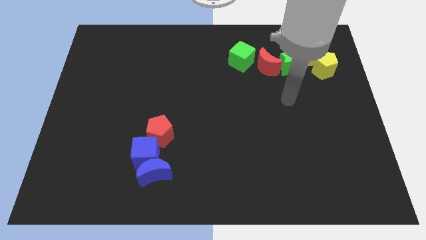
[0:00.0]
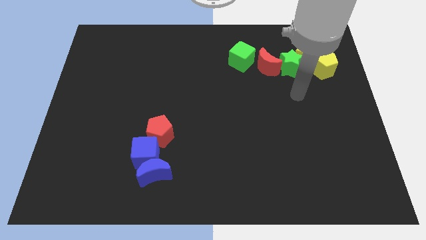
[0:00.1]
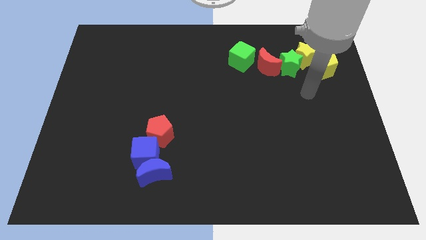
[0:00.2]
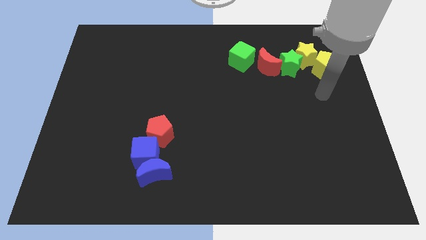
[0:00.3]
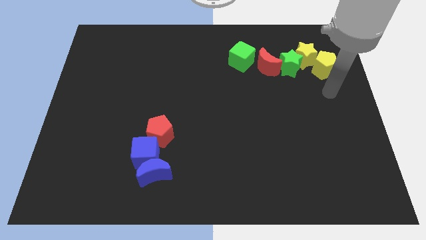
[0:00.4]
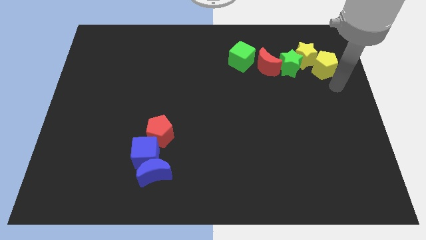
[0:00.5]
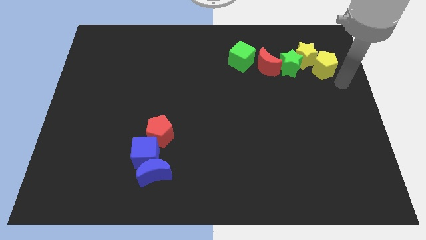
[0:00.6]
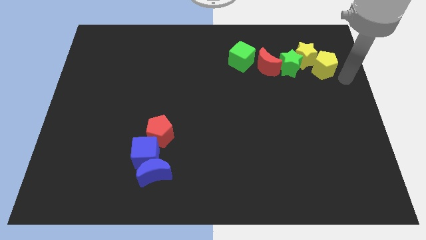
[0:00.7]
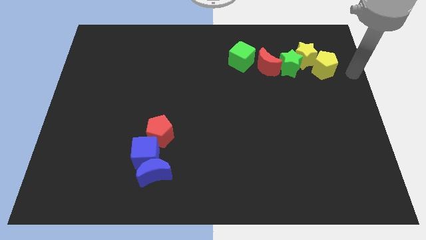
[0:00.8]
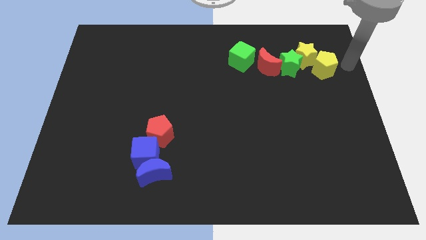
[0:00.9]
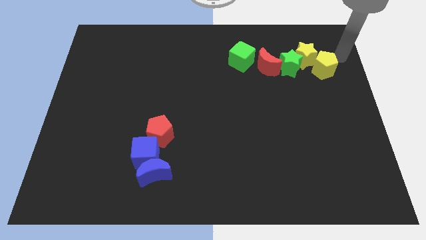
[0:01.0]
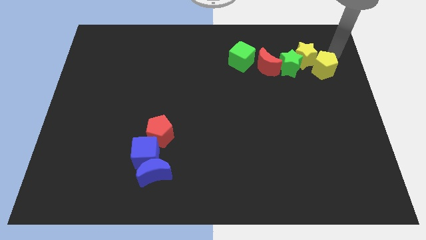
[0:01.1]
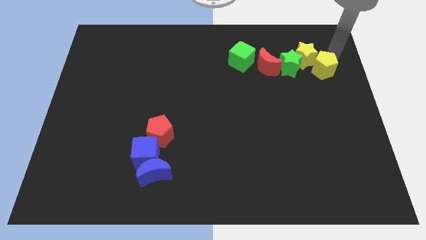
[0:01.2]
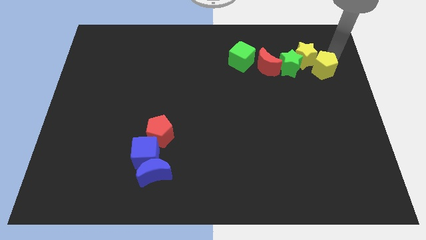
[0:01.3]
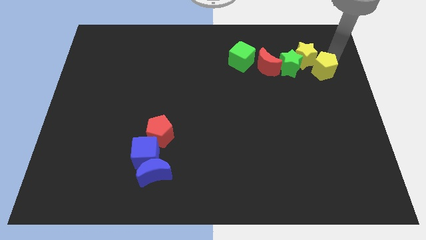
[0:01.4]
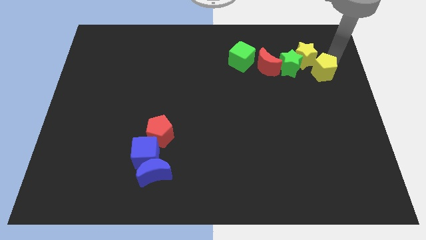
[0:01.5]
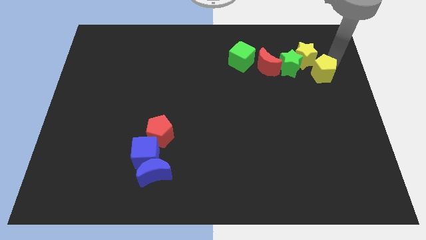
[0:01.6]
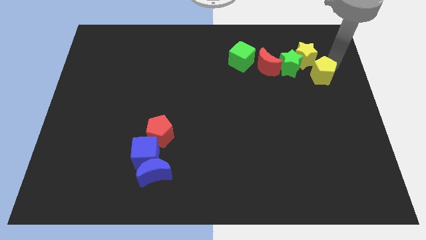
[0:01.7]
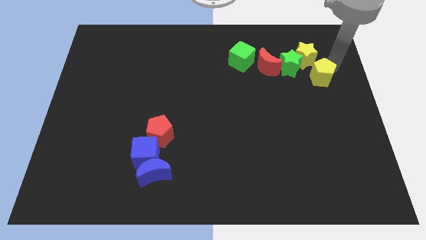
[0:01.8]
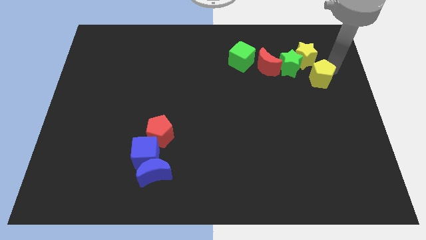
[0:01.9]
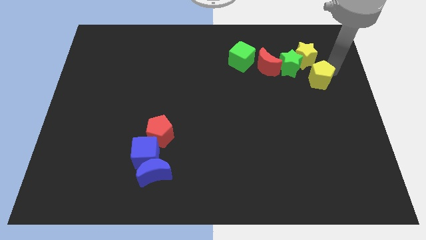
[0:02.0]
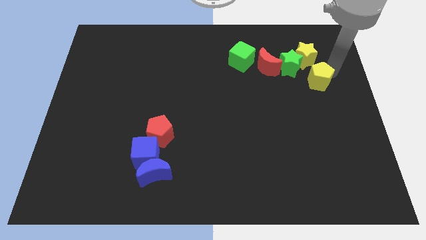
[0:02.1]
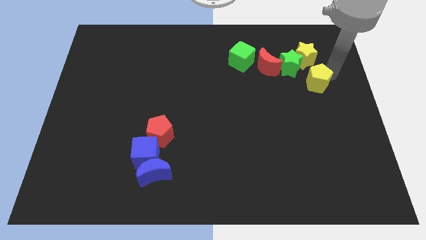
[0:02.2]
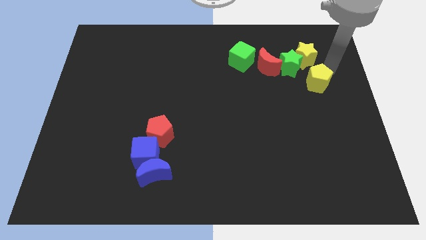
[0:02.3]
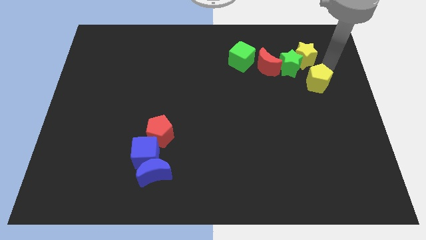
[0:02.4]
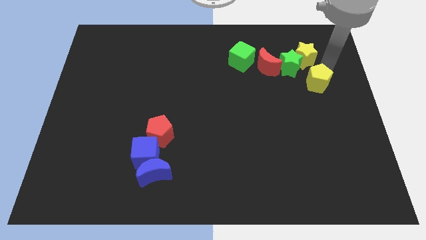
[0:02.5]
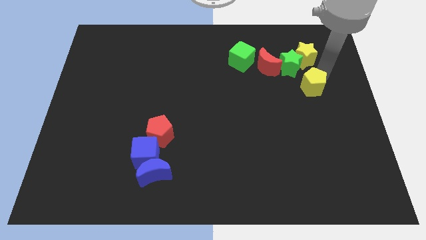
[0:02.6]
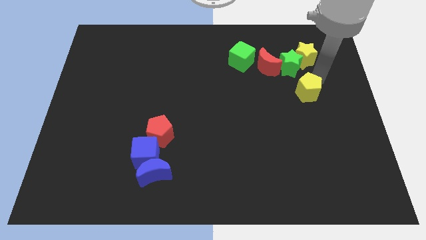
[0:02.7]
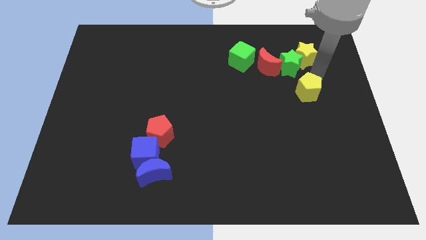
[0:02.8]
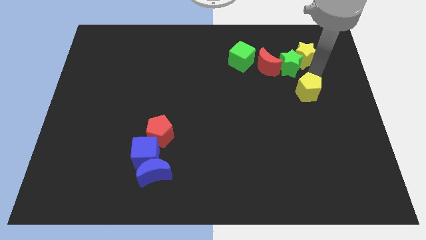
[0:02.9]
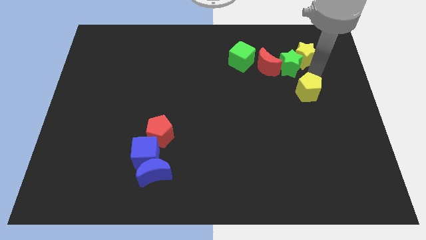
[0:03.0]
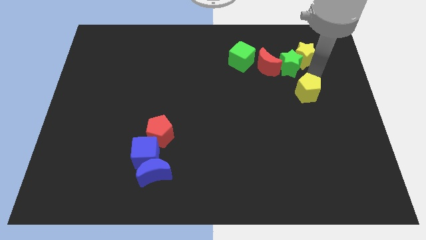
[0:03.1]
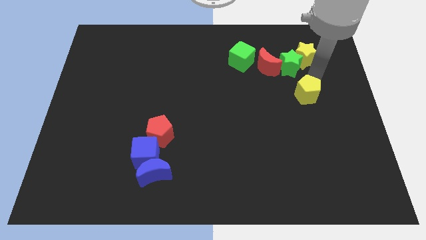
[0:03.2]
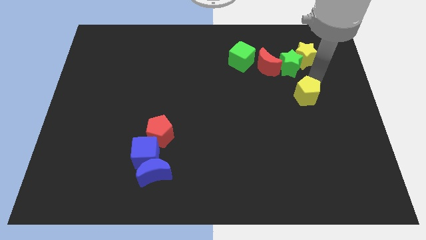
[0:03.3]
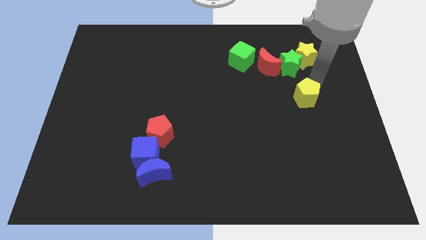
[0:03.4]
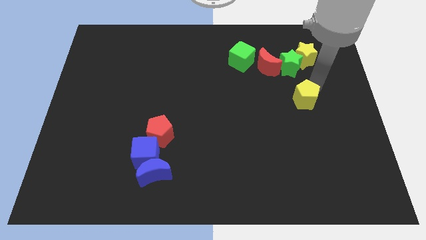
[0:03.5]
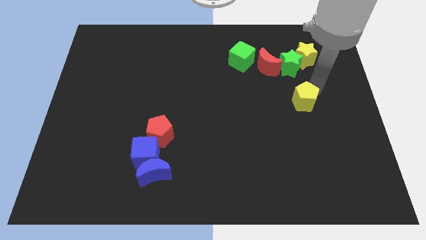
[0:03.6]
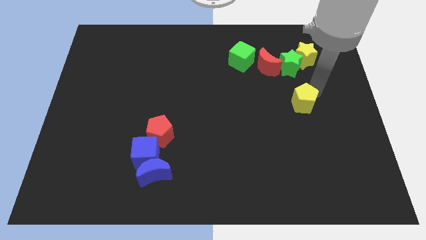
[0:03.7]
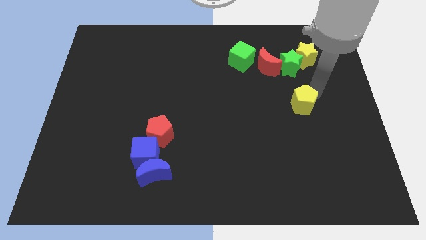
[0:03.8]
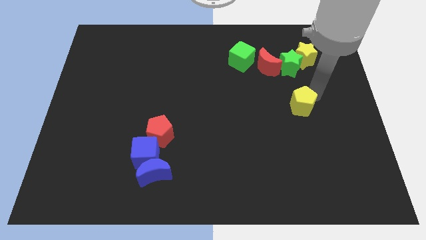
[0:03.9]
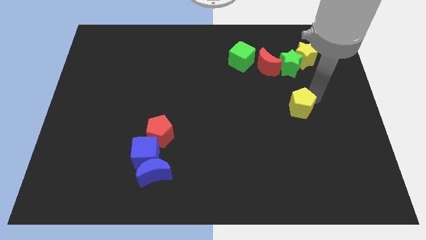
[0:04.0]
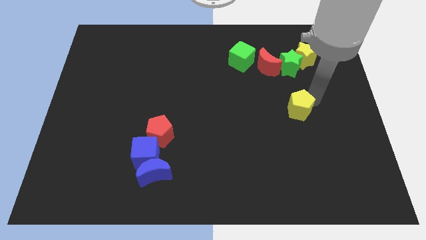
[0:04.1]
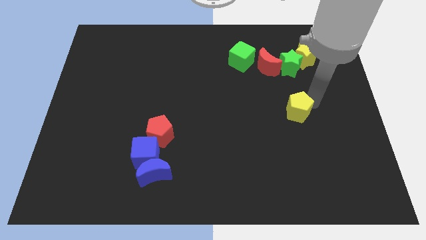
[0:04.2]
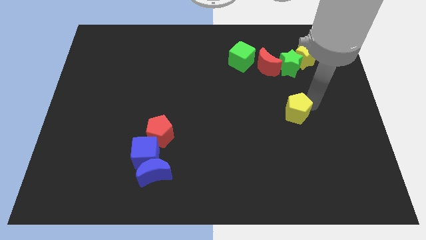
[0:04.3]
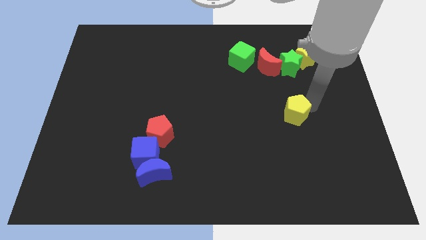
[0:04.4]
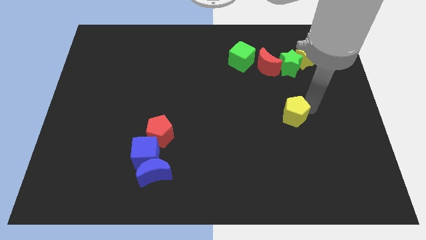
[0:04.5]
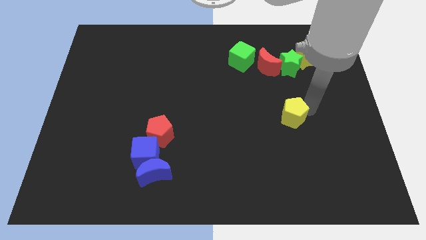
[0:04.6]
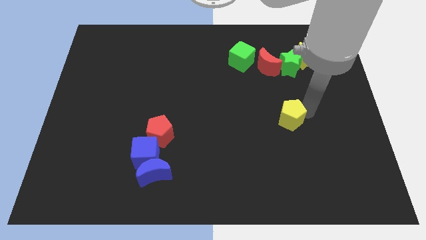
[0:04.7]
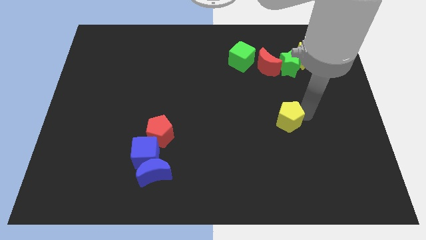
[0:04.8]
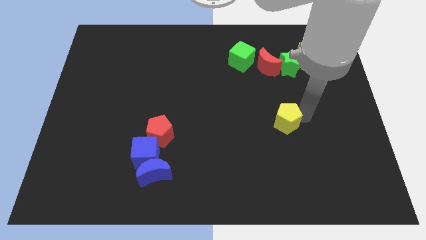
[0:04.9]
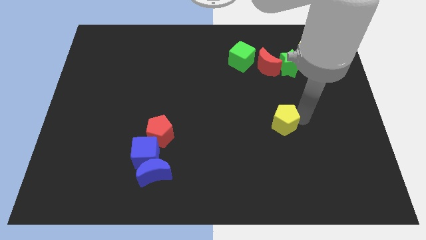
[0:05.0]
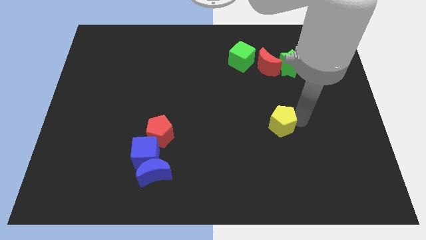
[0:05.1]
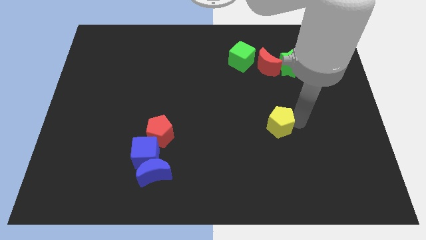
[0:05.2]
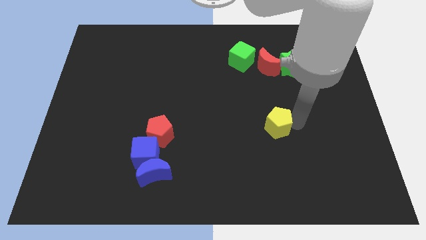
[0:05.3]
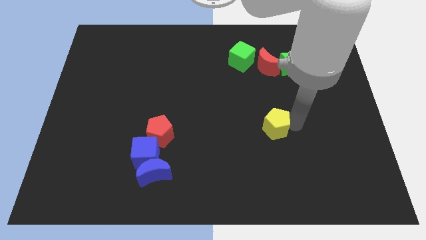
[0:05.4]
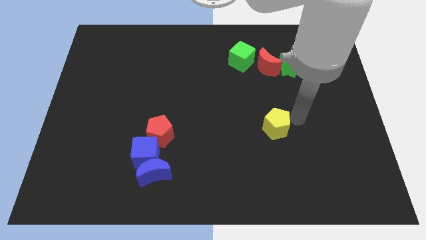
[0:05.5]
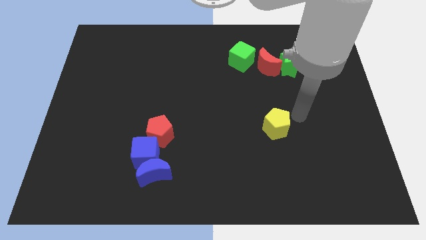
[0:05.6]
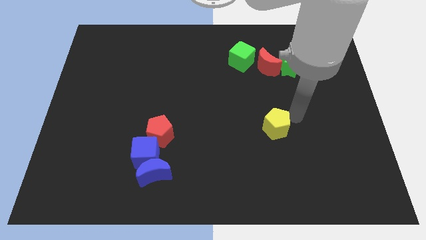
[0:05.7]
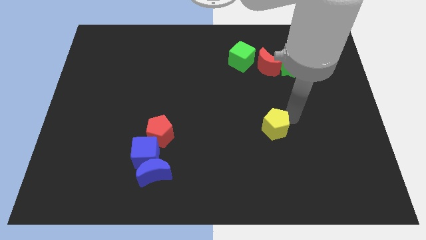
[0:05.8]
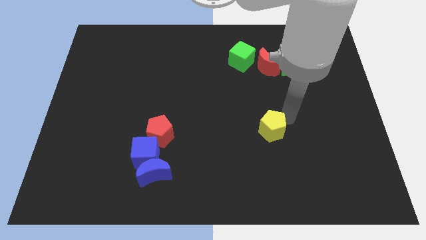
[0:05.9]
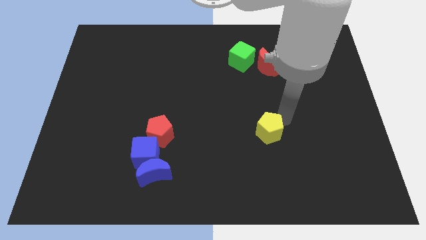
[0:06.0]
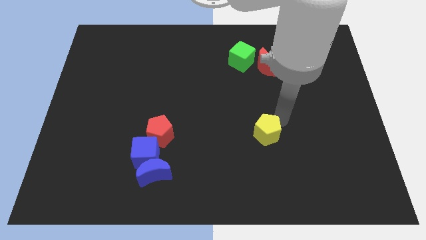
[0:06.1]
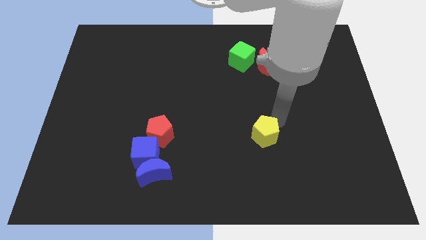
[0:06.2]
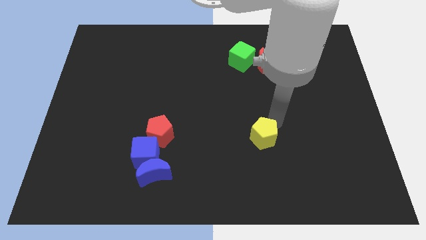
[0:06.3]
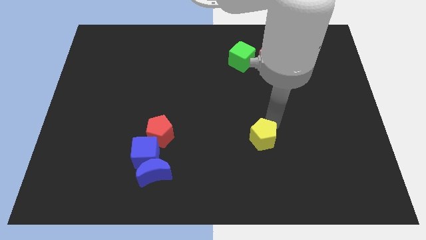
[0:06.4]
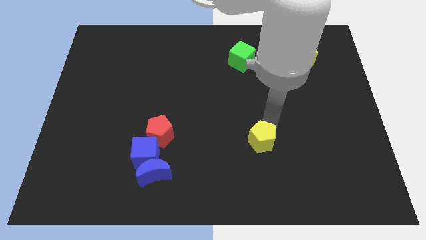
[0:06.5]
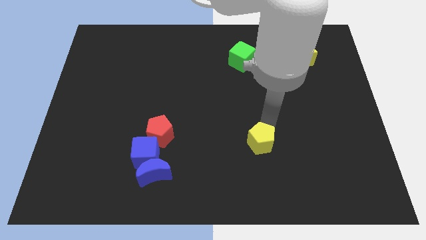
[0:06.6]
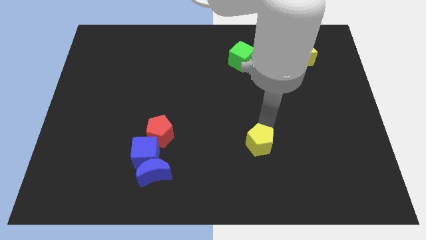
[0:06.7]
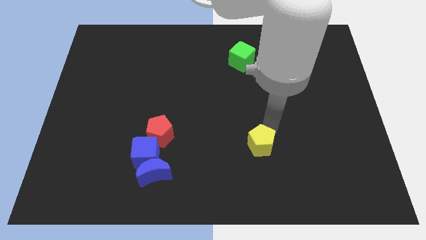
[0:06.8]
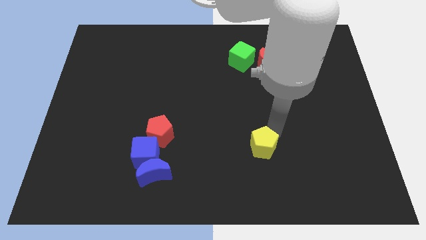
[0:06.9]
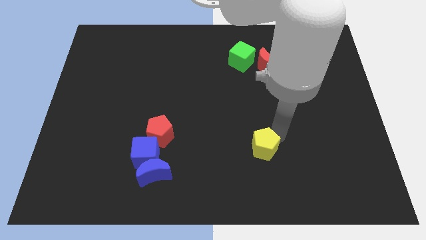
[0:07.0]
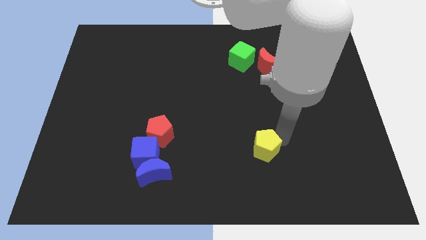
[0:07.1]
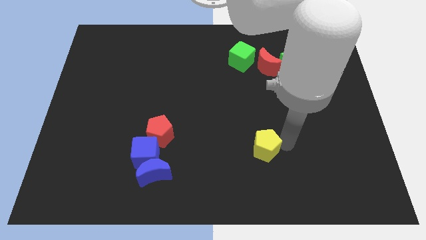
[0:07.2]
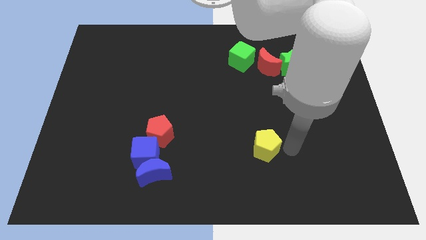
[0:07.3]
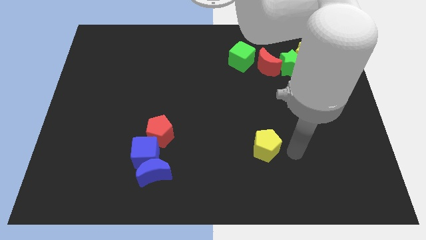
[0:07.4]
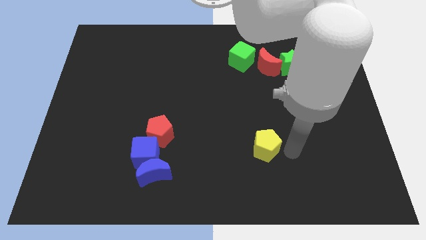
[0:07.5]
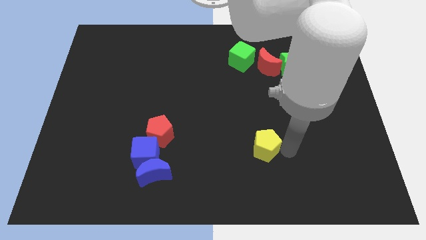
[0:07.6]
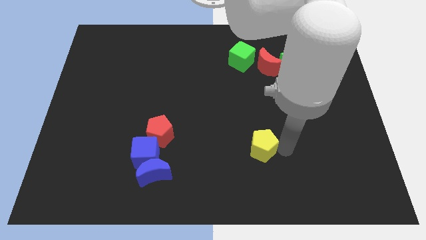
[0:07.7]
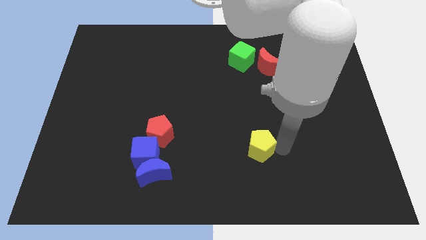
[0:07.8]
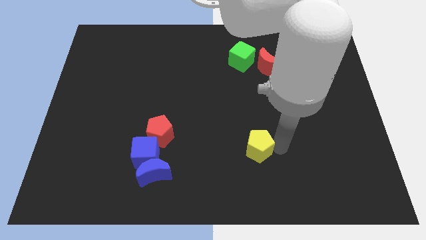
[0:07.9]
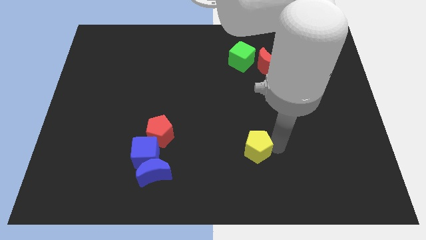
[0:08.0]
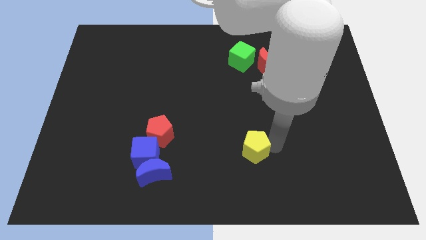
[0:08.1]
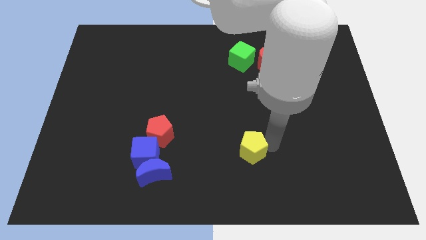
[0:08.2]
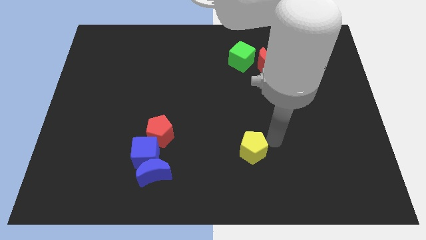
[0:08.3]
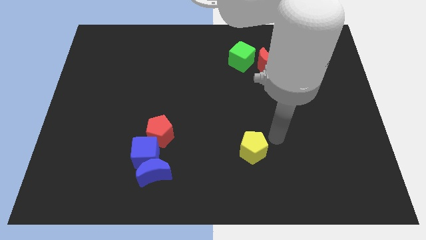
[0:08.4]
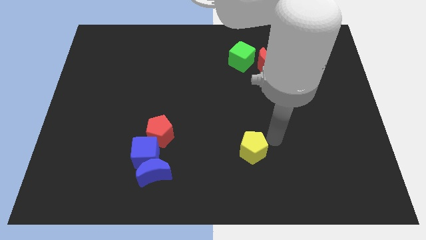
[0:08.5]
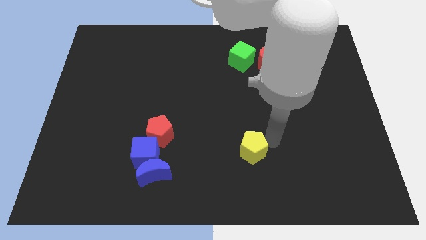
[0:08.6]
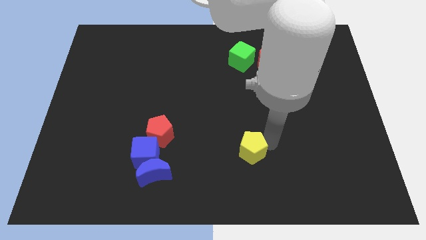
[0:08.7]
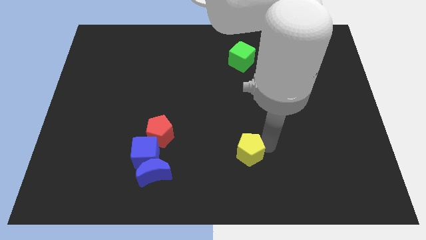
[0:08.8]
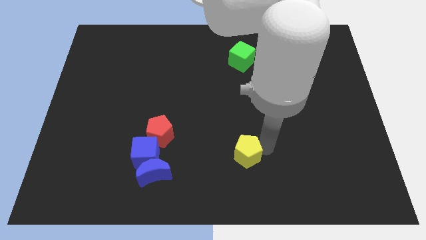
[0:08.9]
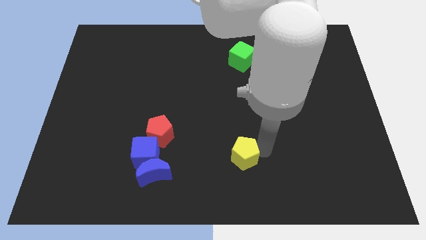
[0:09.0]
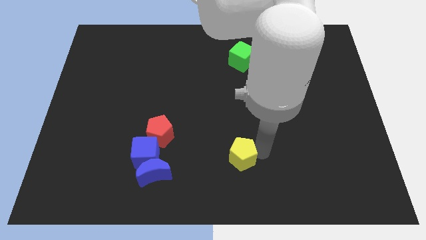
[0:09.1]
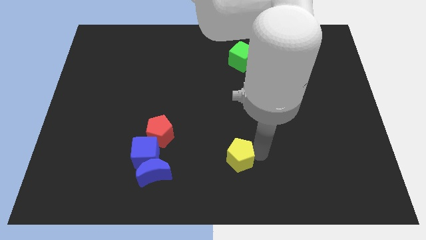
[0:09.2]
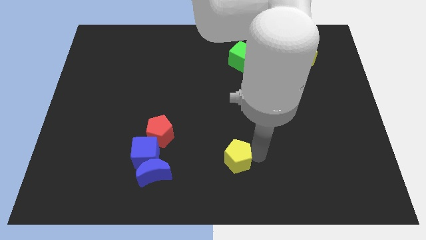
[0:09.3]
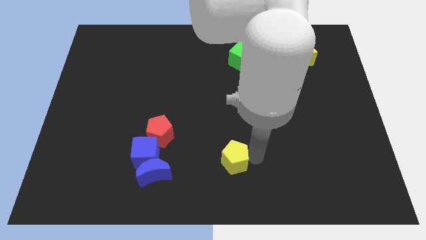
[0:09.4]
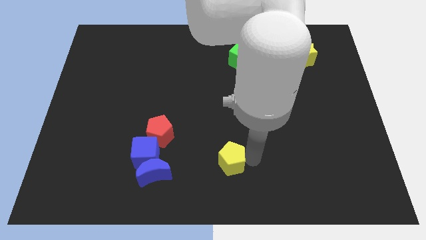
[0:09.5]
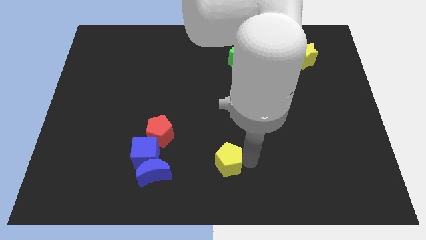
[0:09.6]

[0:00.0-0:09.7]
slide the yellow pentagon to the right of the blue moon
